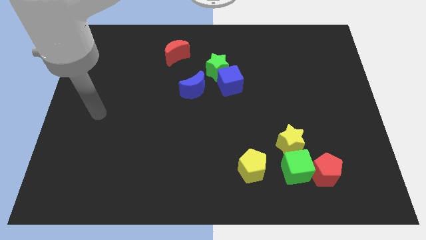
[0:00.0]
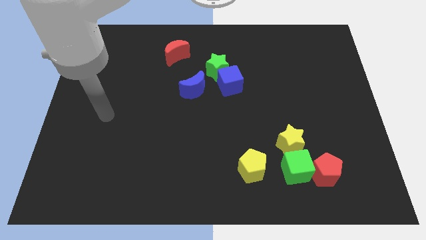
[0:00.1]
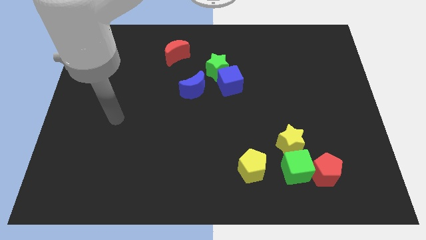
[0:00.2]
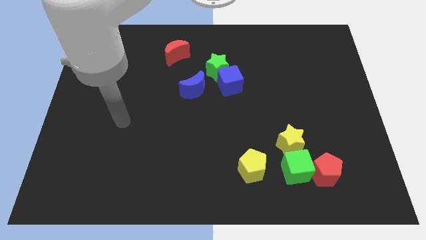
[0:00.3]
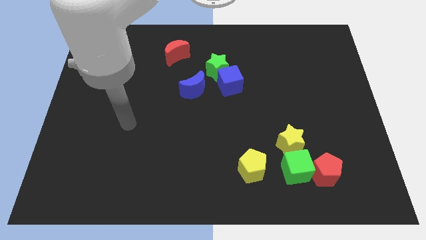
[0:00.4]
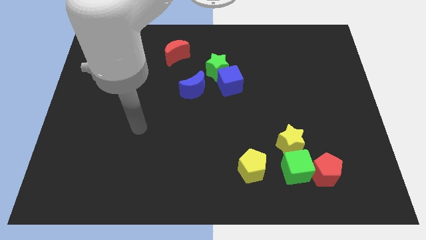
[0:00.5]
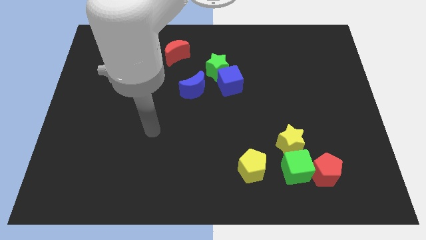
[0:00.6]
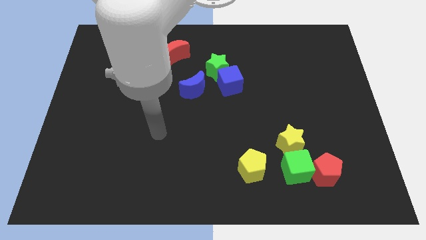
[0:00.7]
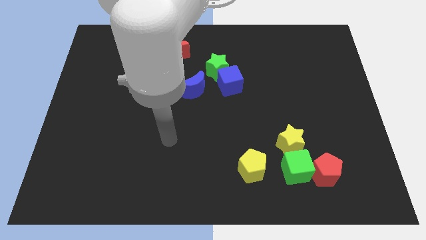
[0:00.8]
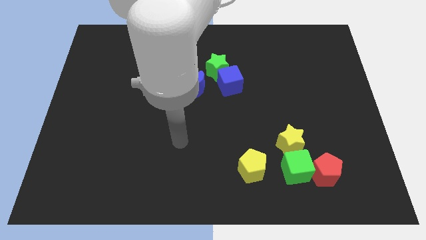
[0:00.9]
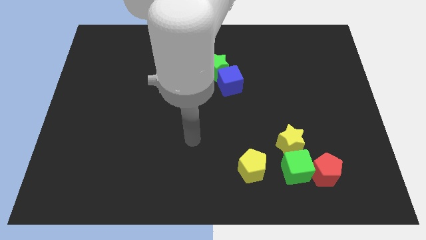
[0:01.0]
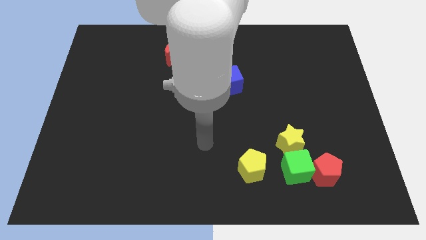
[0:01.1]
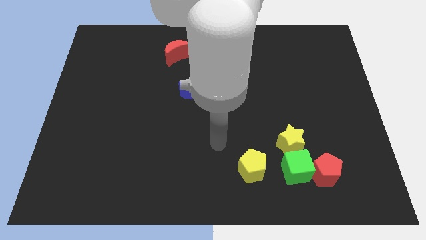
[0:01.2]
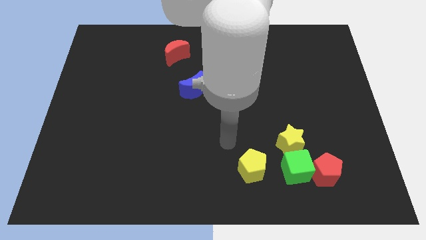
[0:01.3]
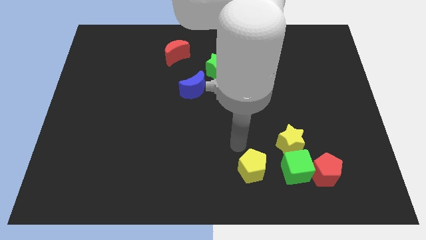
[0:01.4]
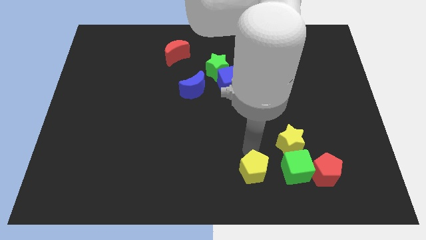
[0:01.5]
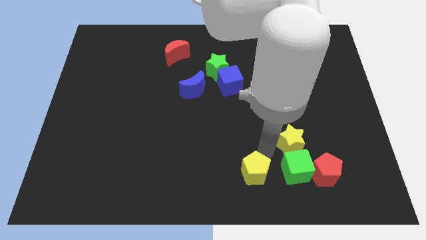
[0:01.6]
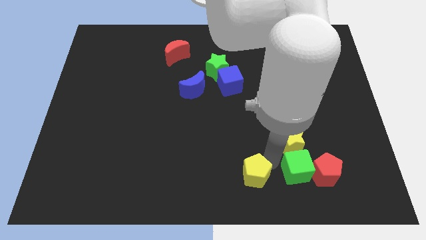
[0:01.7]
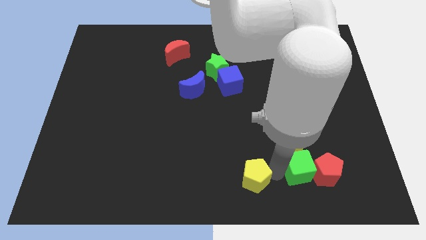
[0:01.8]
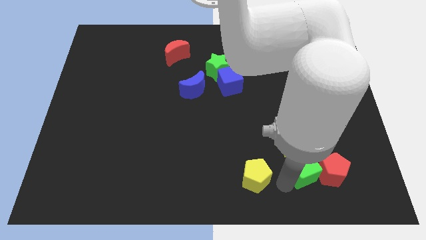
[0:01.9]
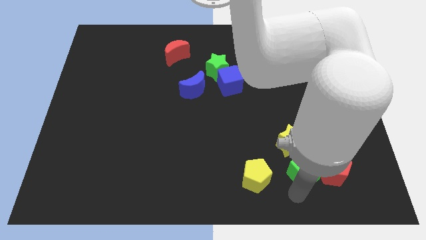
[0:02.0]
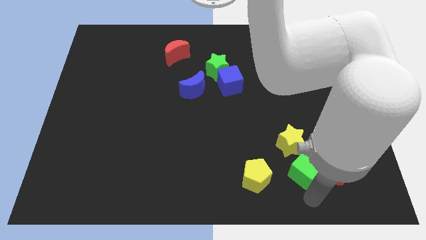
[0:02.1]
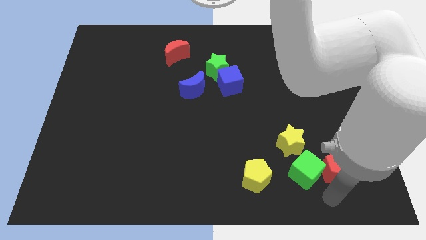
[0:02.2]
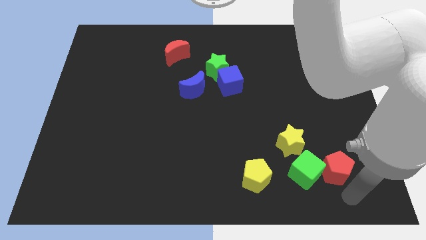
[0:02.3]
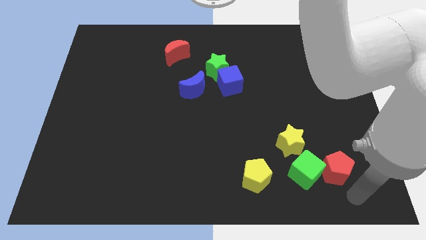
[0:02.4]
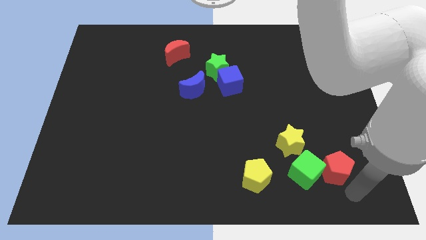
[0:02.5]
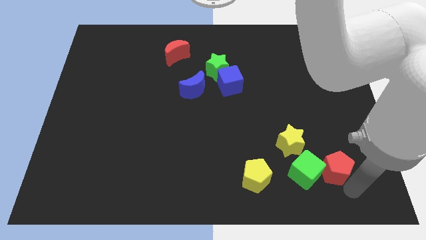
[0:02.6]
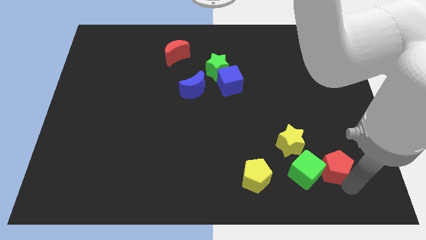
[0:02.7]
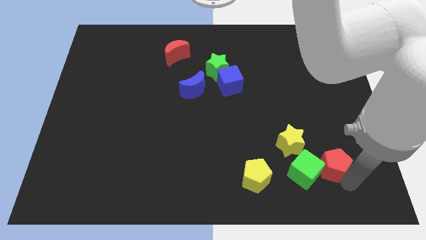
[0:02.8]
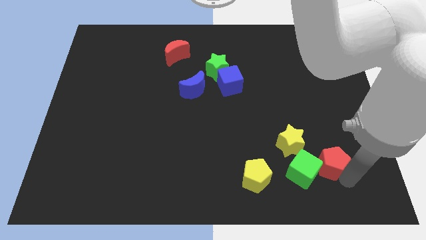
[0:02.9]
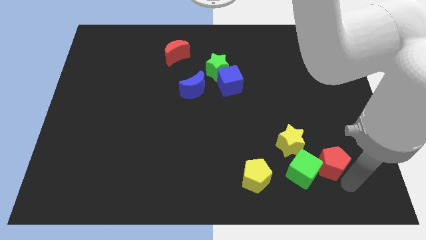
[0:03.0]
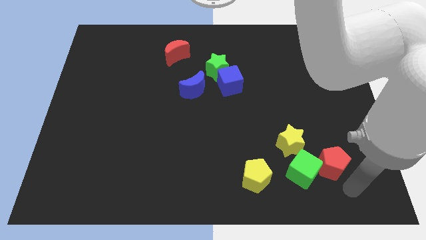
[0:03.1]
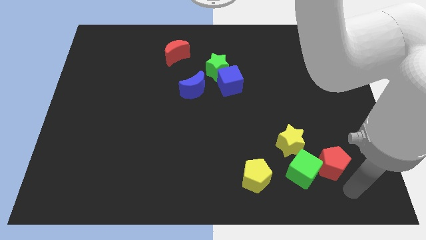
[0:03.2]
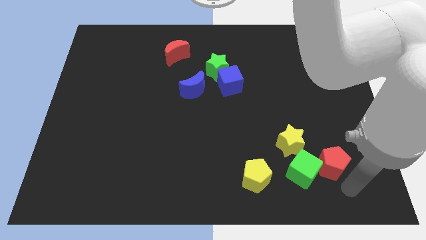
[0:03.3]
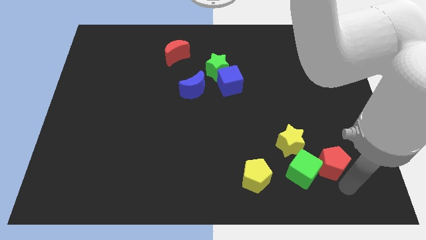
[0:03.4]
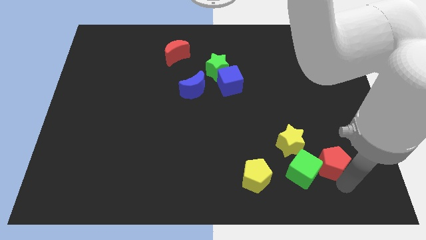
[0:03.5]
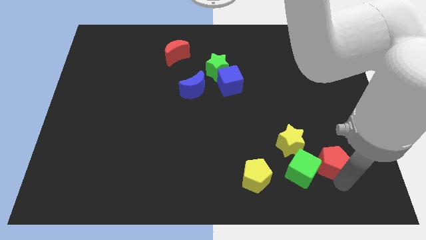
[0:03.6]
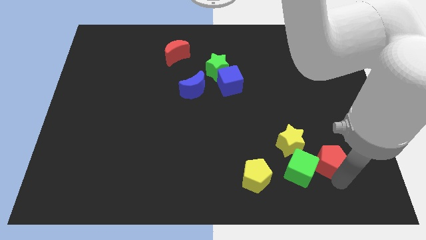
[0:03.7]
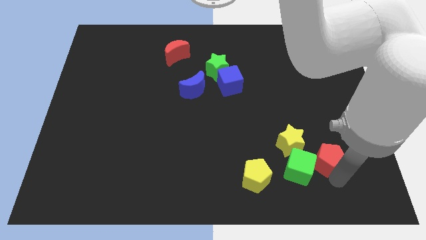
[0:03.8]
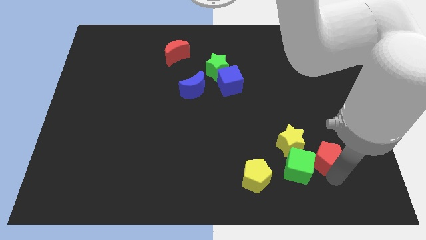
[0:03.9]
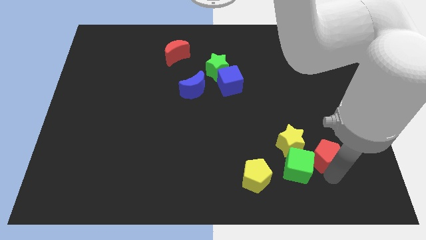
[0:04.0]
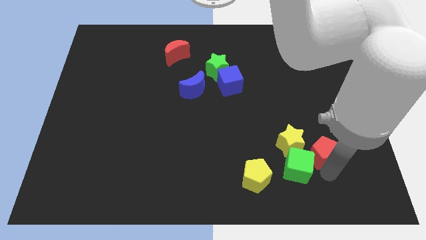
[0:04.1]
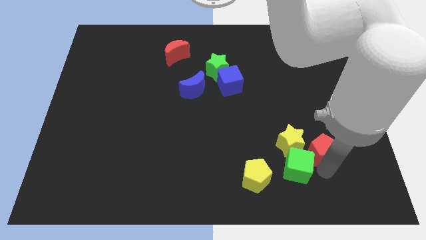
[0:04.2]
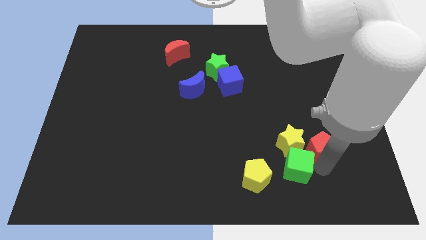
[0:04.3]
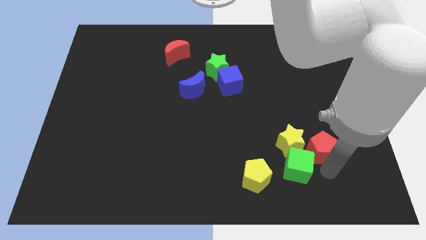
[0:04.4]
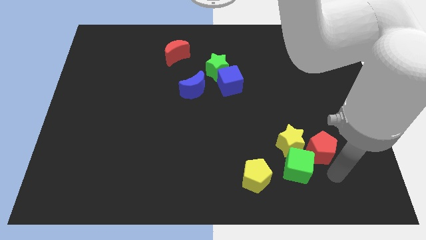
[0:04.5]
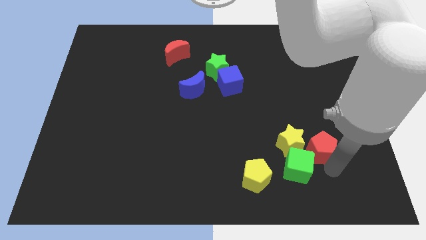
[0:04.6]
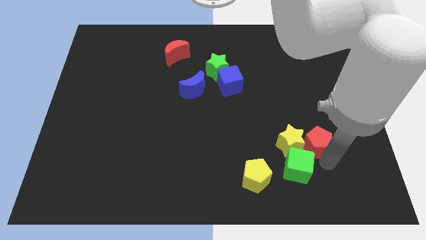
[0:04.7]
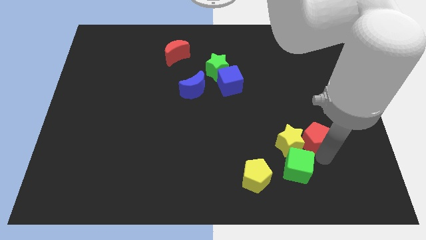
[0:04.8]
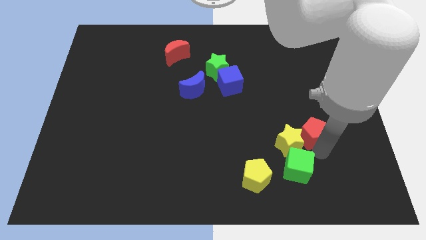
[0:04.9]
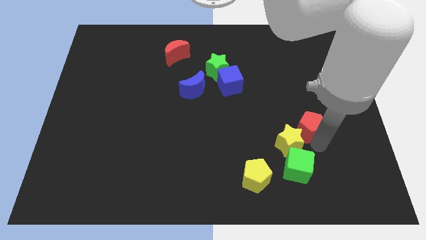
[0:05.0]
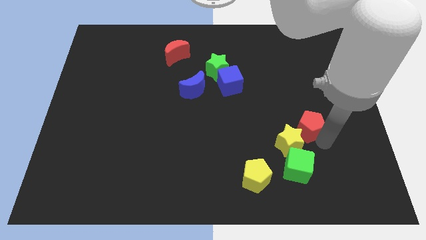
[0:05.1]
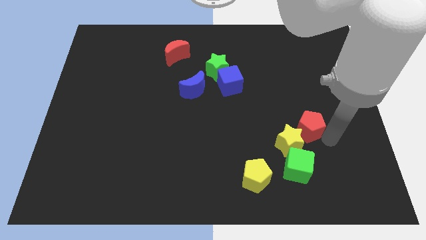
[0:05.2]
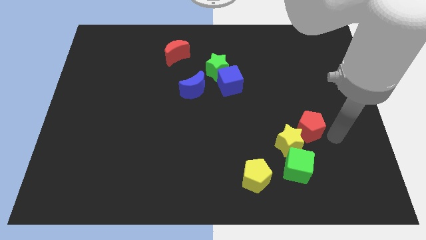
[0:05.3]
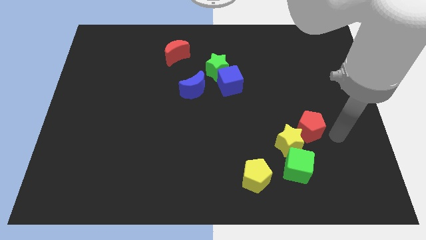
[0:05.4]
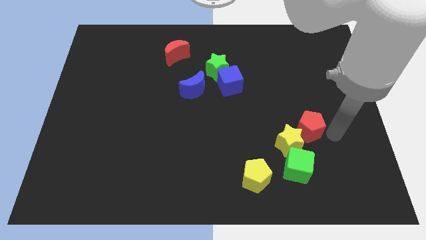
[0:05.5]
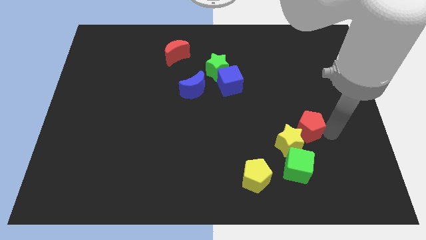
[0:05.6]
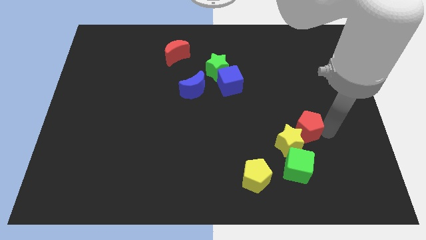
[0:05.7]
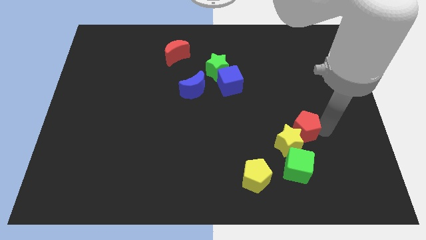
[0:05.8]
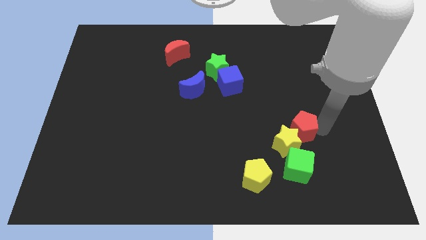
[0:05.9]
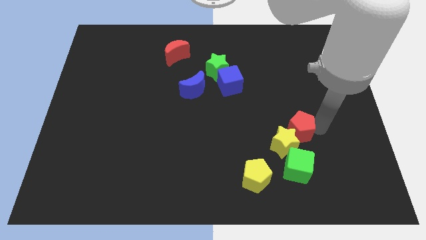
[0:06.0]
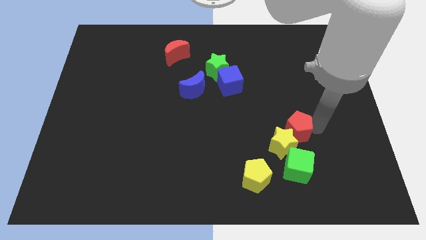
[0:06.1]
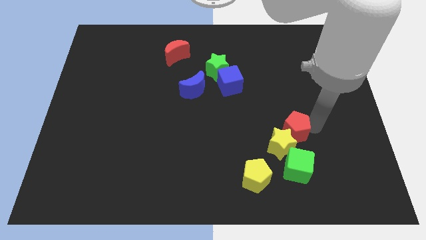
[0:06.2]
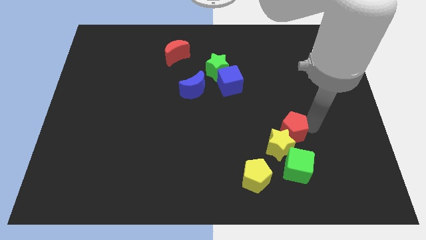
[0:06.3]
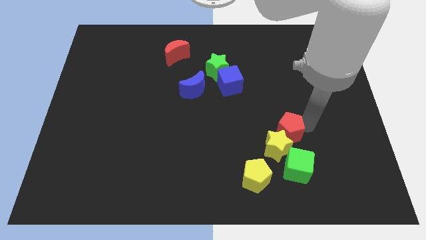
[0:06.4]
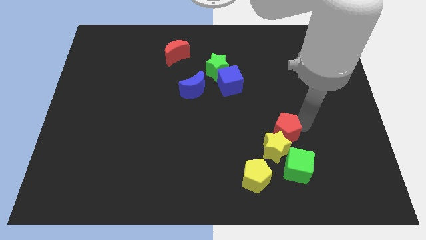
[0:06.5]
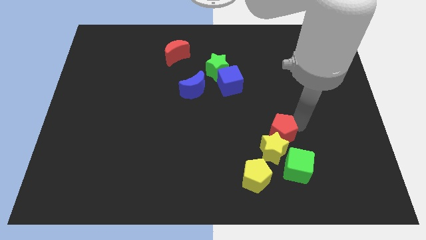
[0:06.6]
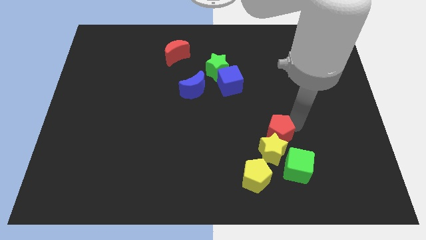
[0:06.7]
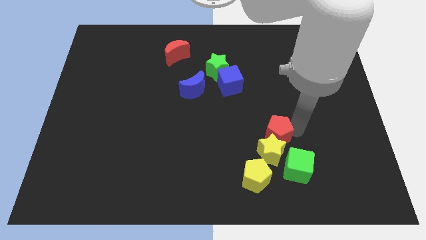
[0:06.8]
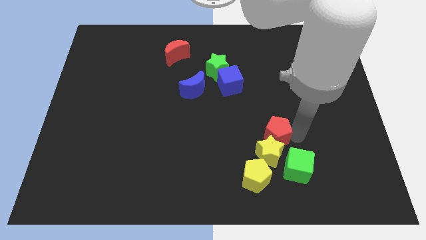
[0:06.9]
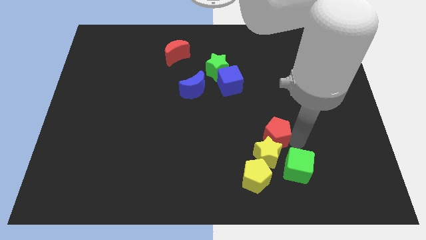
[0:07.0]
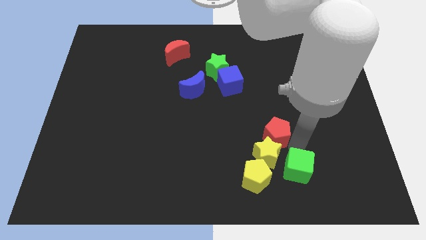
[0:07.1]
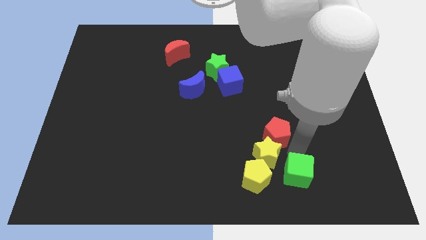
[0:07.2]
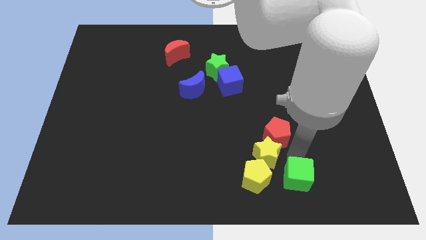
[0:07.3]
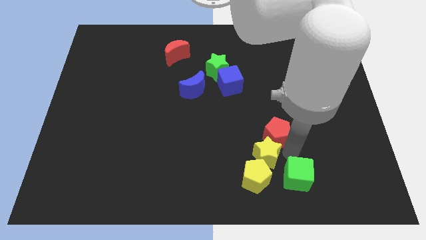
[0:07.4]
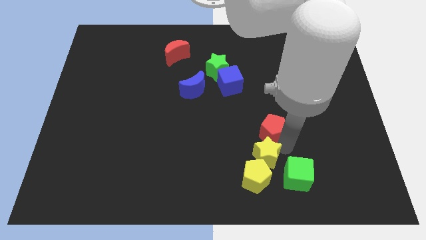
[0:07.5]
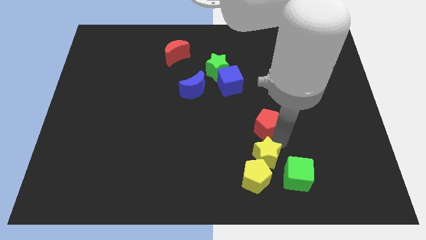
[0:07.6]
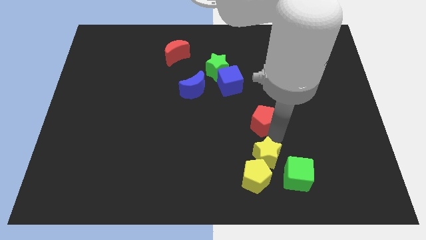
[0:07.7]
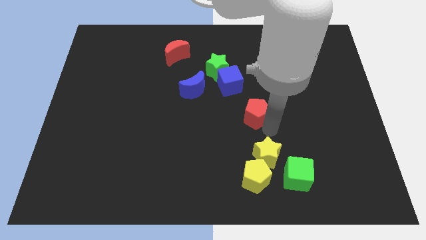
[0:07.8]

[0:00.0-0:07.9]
push the red pentagon to the middle
